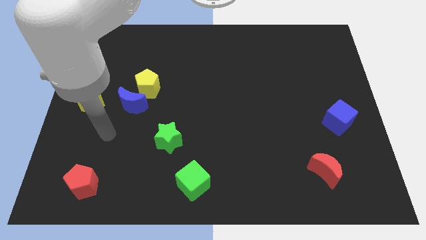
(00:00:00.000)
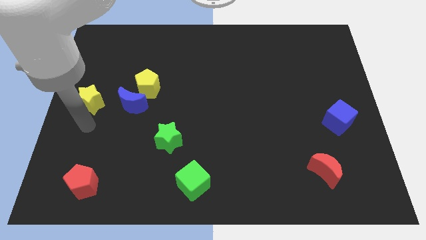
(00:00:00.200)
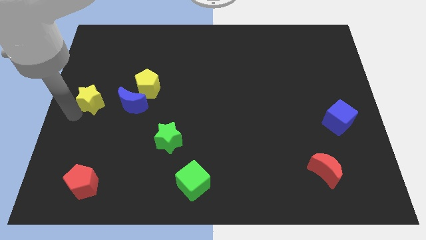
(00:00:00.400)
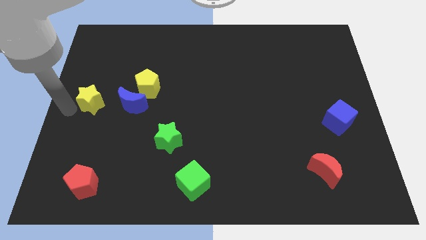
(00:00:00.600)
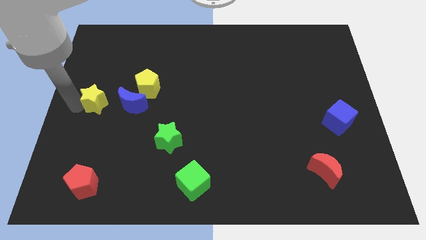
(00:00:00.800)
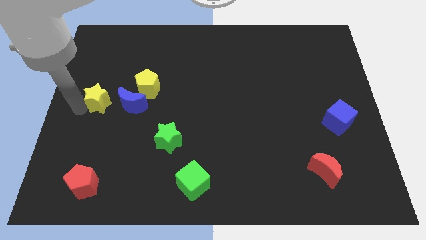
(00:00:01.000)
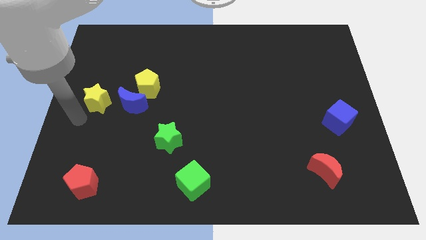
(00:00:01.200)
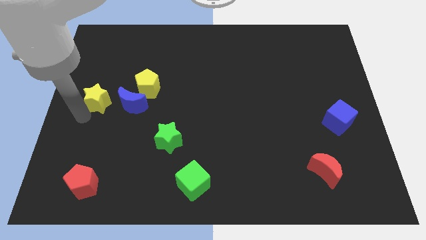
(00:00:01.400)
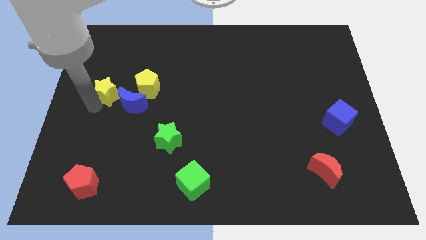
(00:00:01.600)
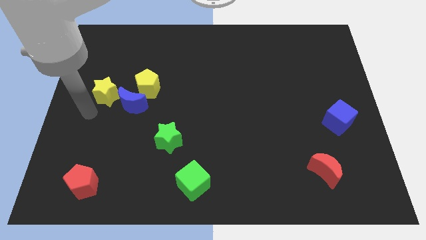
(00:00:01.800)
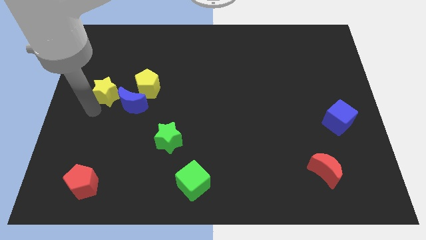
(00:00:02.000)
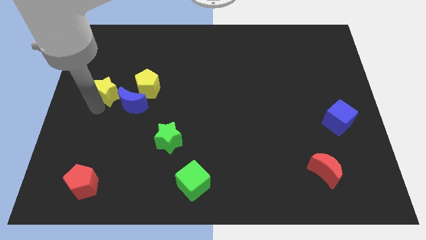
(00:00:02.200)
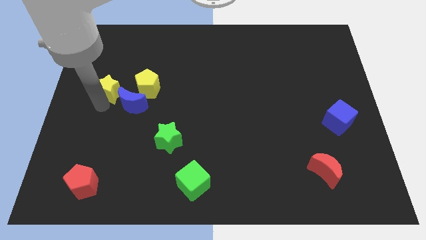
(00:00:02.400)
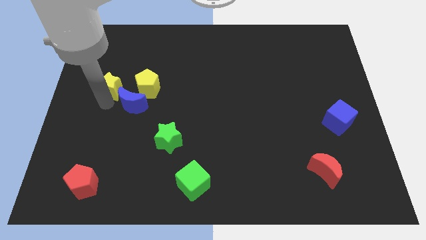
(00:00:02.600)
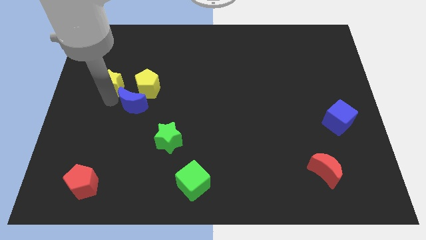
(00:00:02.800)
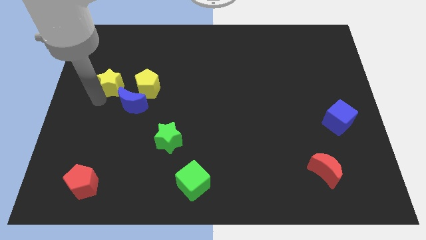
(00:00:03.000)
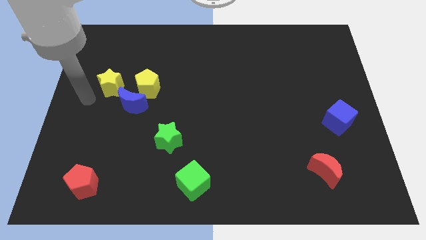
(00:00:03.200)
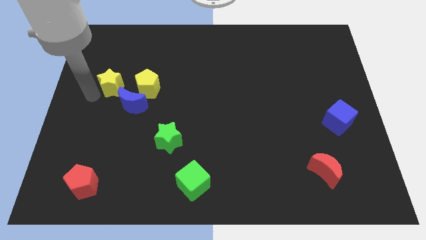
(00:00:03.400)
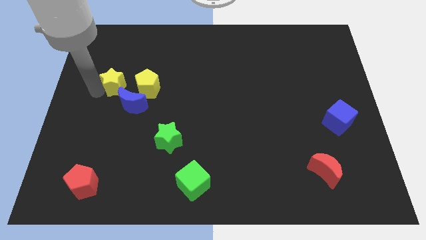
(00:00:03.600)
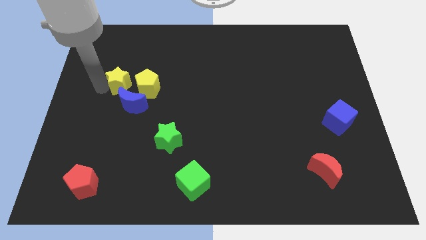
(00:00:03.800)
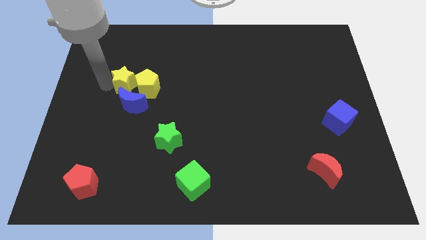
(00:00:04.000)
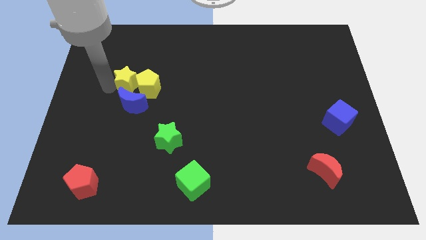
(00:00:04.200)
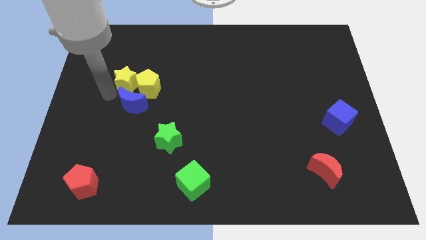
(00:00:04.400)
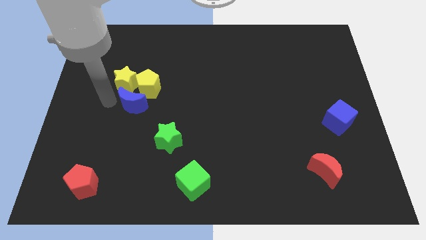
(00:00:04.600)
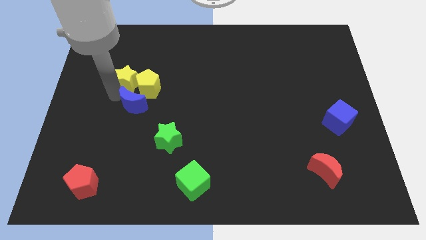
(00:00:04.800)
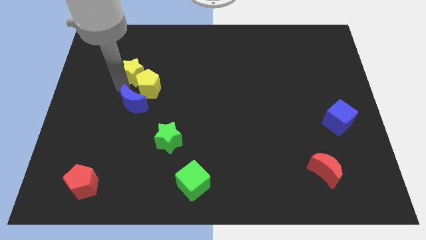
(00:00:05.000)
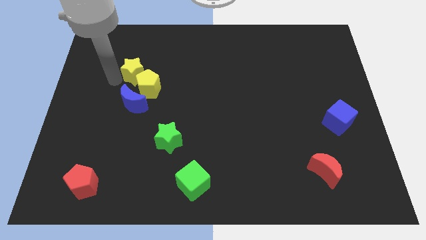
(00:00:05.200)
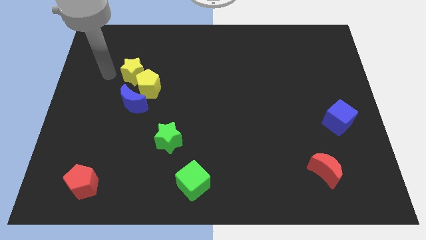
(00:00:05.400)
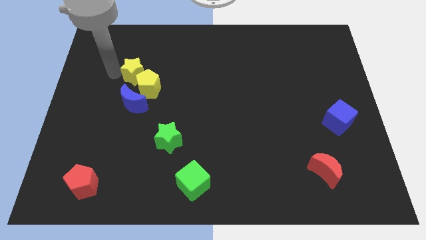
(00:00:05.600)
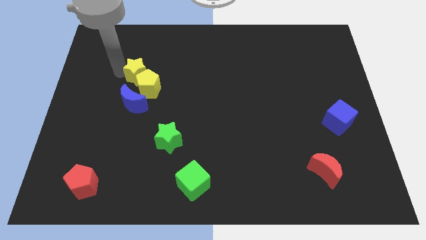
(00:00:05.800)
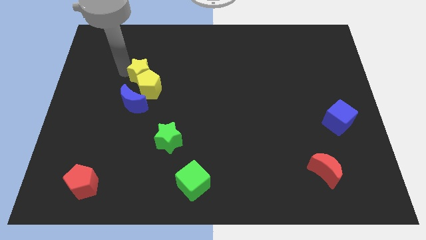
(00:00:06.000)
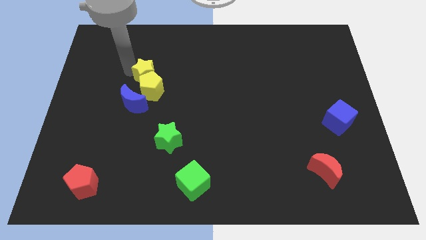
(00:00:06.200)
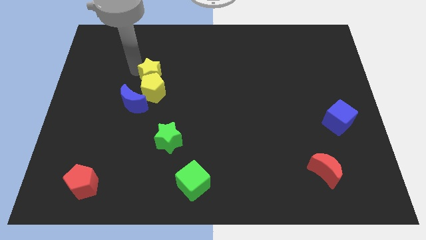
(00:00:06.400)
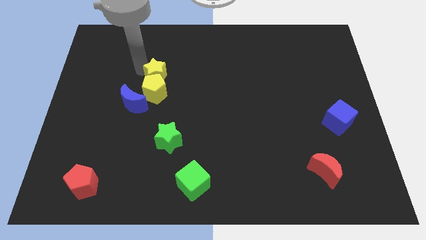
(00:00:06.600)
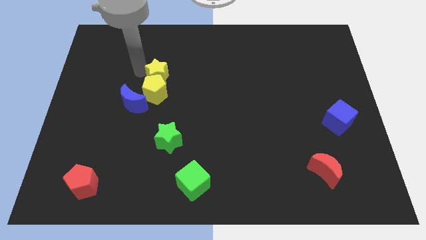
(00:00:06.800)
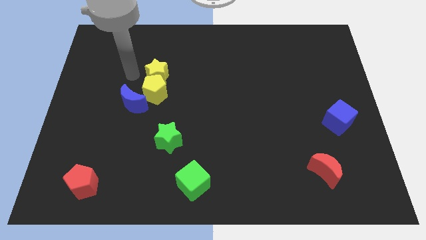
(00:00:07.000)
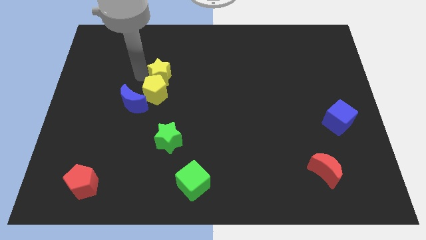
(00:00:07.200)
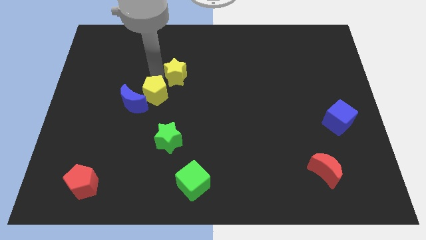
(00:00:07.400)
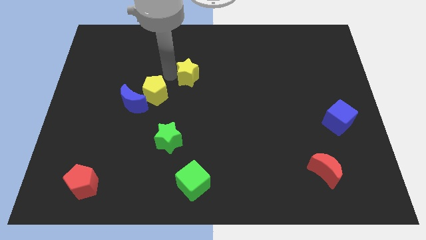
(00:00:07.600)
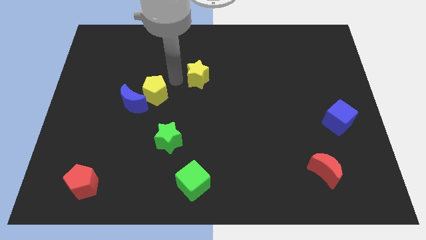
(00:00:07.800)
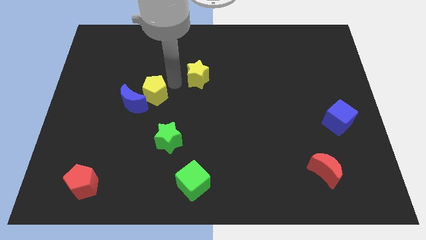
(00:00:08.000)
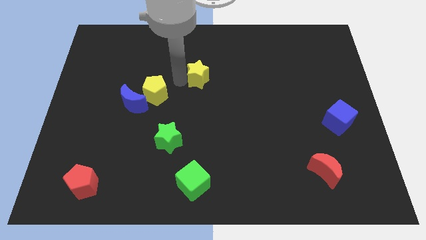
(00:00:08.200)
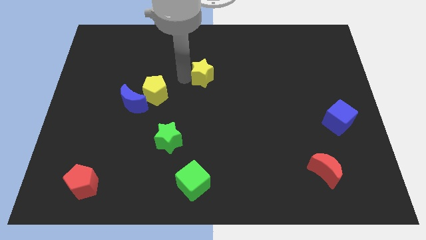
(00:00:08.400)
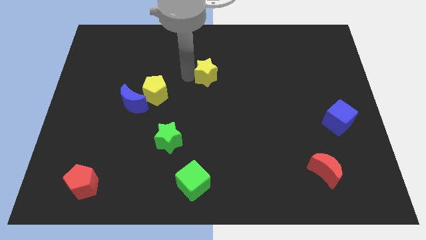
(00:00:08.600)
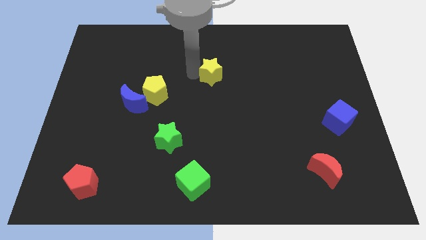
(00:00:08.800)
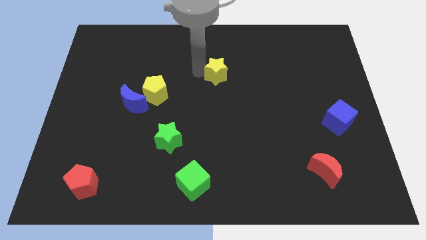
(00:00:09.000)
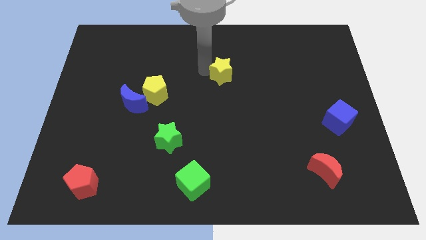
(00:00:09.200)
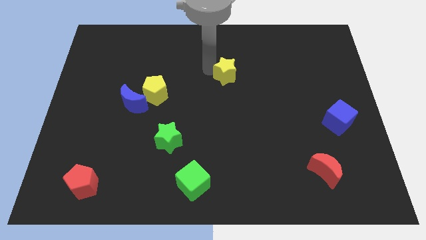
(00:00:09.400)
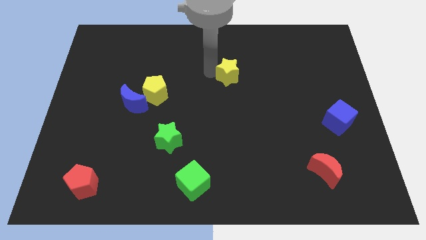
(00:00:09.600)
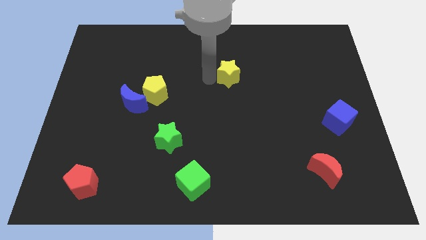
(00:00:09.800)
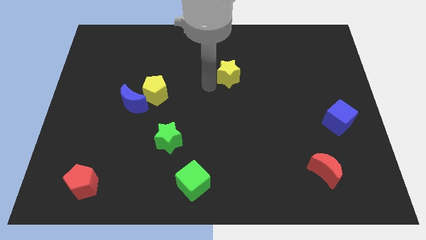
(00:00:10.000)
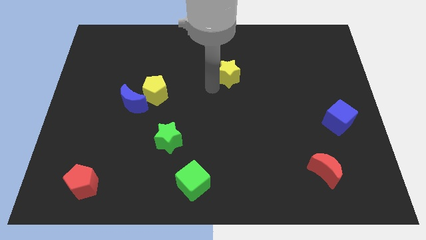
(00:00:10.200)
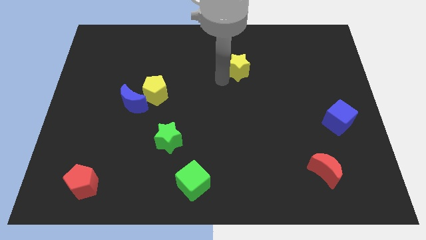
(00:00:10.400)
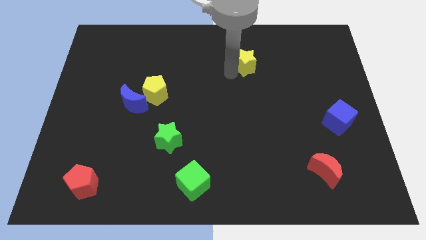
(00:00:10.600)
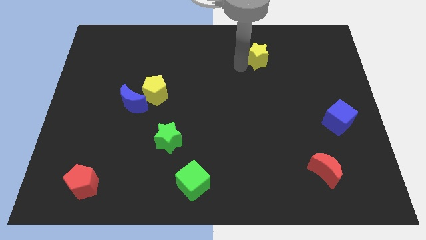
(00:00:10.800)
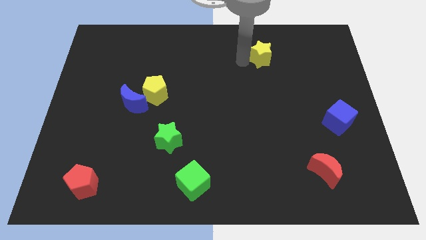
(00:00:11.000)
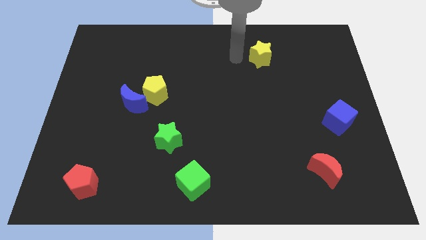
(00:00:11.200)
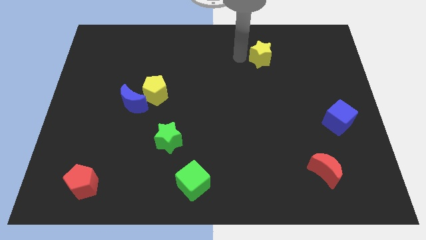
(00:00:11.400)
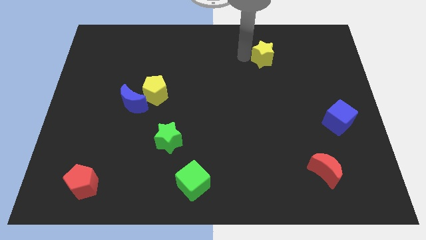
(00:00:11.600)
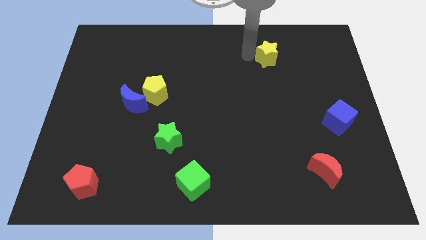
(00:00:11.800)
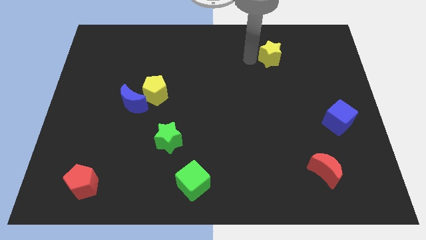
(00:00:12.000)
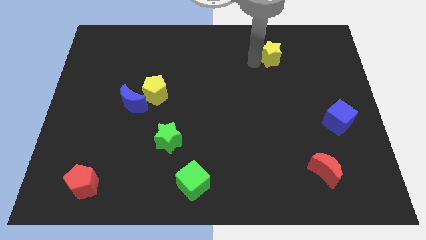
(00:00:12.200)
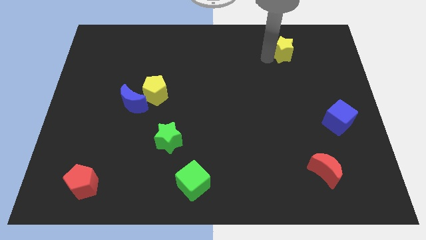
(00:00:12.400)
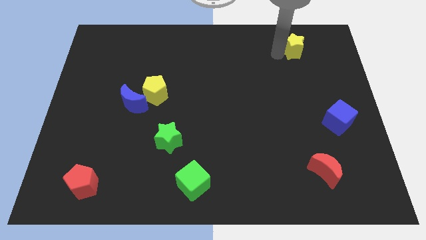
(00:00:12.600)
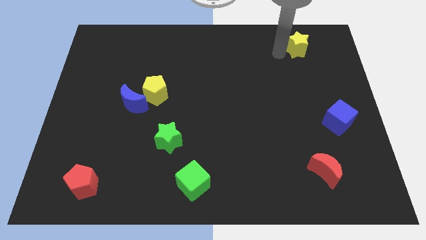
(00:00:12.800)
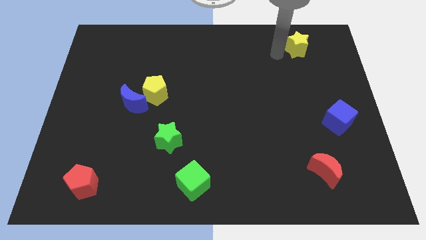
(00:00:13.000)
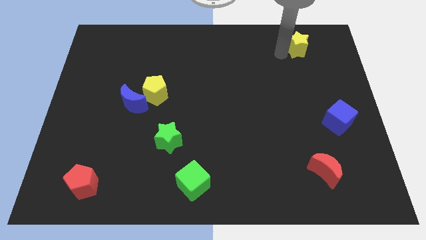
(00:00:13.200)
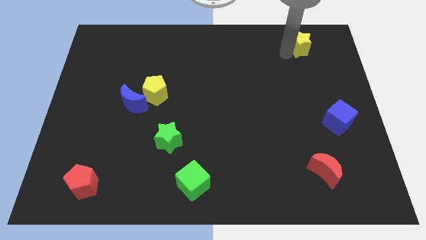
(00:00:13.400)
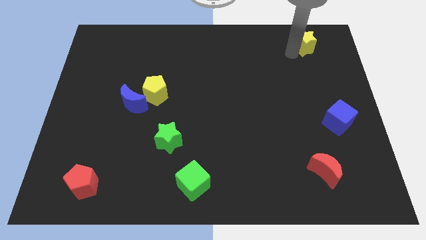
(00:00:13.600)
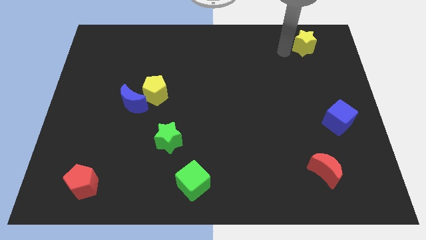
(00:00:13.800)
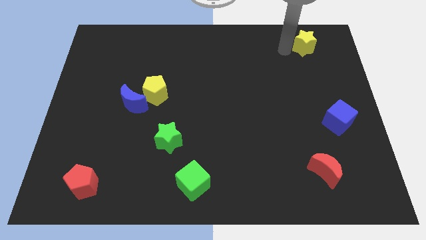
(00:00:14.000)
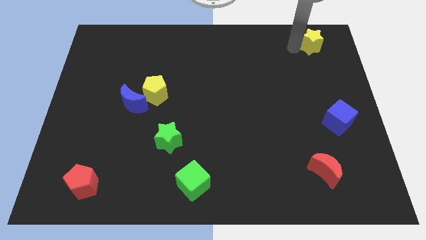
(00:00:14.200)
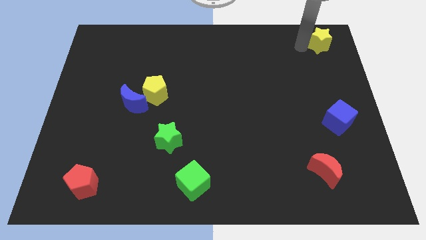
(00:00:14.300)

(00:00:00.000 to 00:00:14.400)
put the yellow star to the top right of the board
